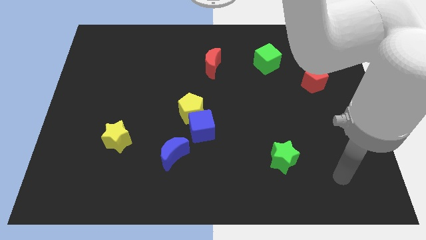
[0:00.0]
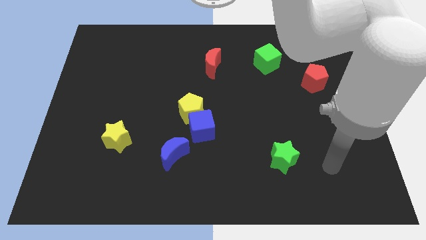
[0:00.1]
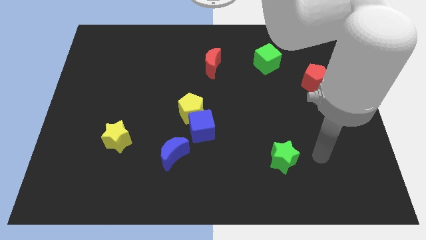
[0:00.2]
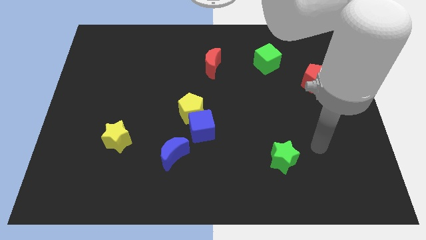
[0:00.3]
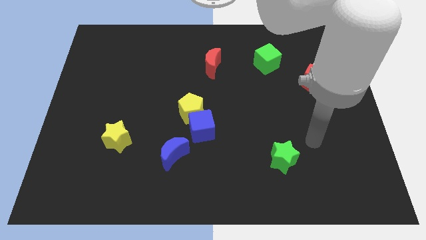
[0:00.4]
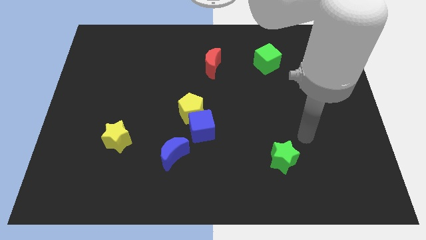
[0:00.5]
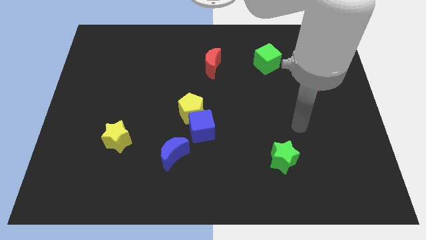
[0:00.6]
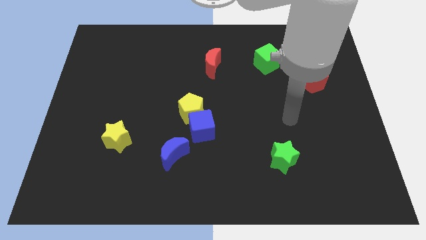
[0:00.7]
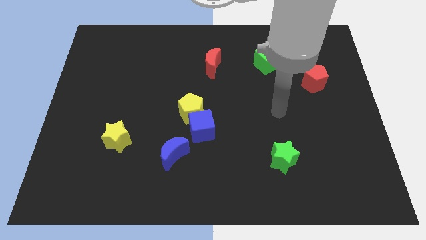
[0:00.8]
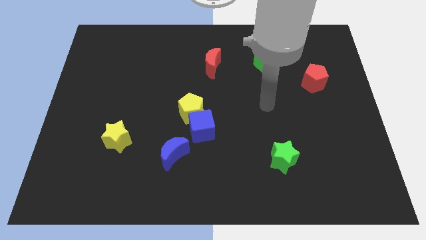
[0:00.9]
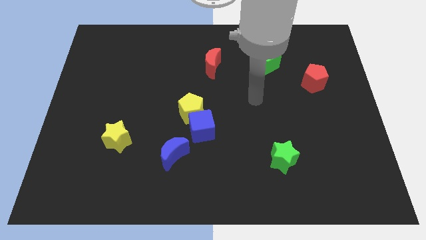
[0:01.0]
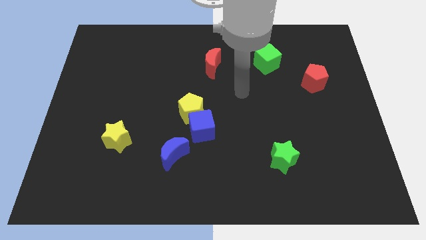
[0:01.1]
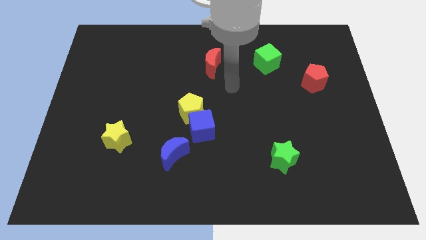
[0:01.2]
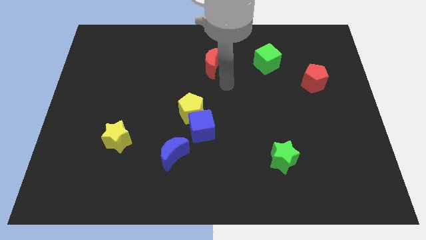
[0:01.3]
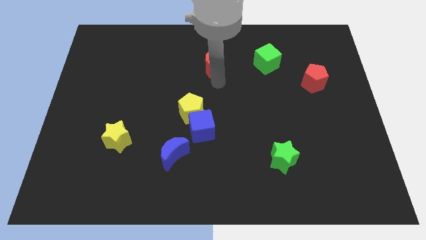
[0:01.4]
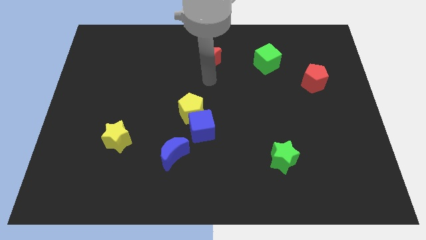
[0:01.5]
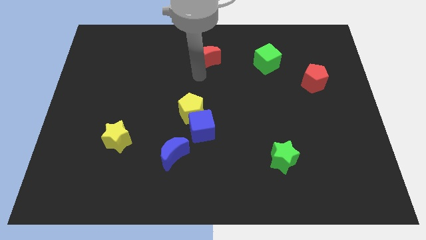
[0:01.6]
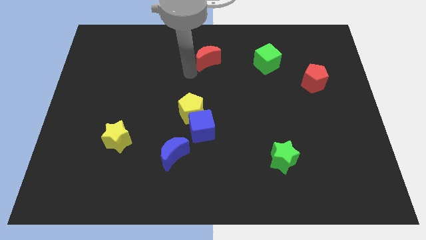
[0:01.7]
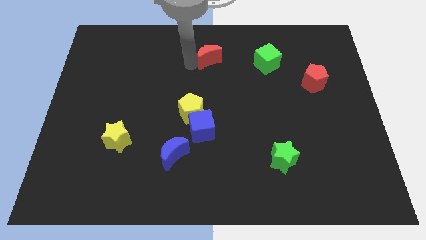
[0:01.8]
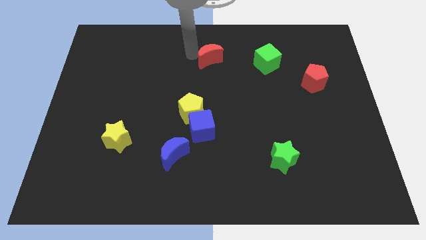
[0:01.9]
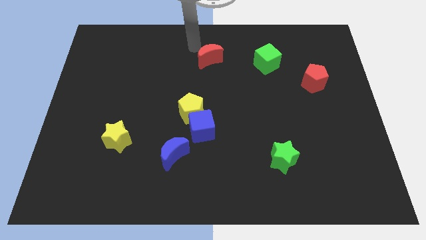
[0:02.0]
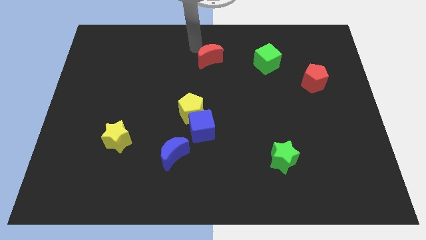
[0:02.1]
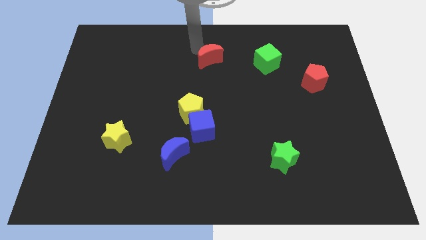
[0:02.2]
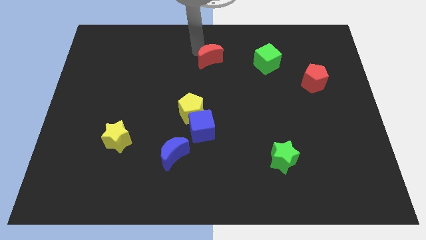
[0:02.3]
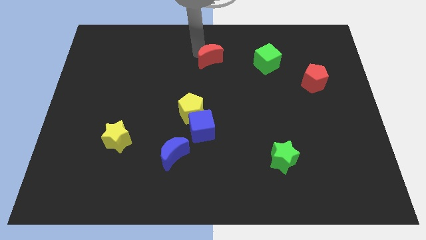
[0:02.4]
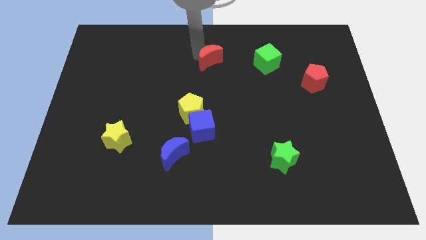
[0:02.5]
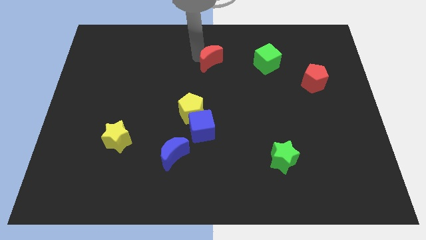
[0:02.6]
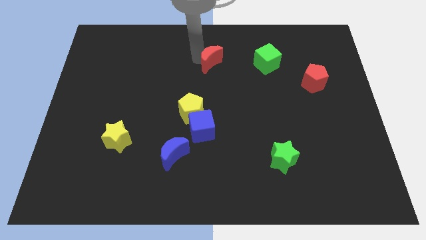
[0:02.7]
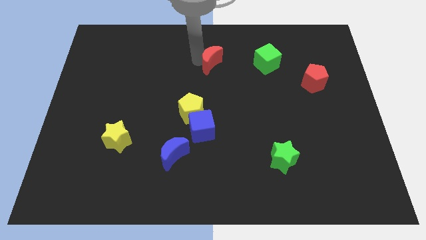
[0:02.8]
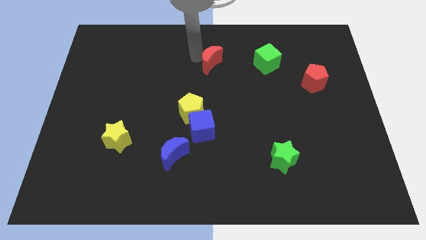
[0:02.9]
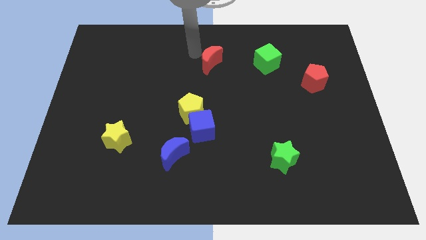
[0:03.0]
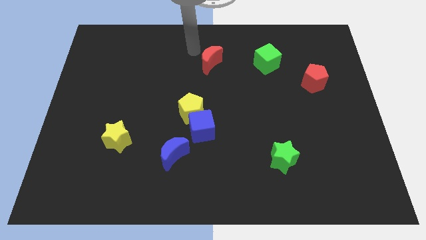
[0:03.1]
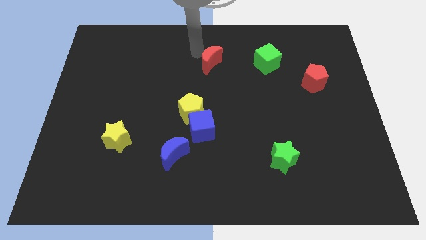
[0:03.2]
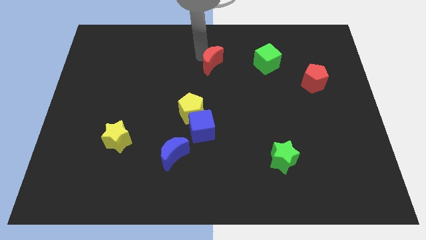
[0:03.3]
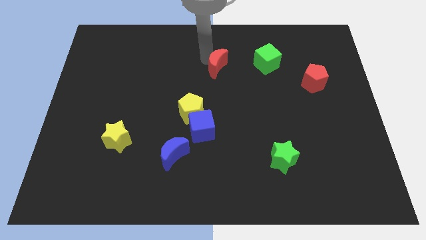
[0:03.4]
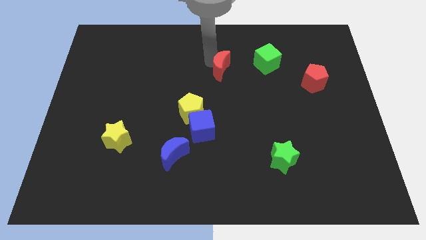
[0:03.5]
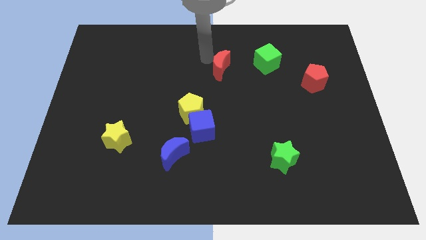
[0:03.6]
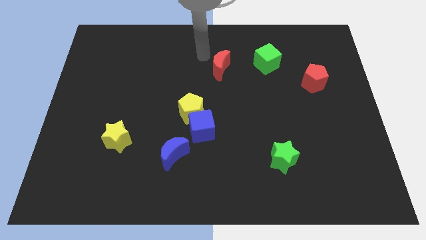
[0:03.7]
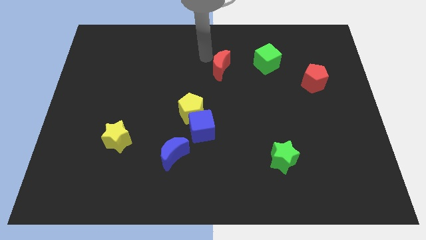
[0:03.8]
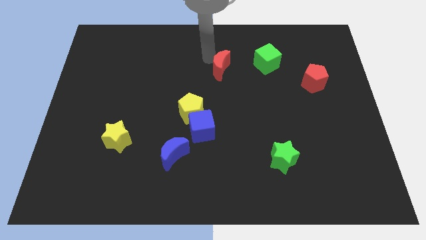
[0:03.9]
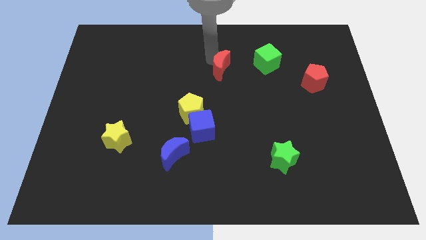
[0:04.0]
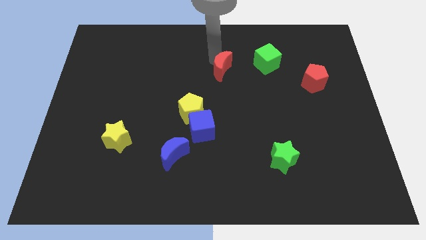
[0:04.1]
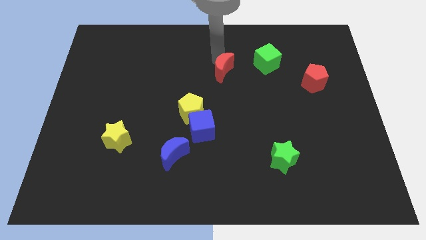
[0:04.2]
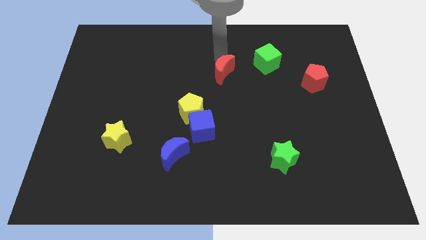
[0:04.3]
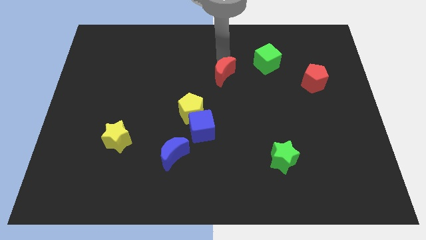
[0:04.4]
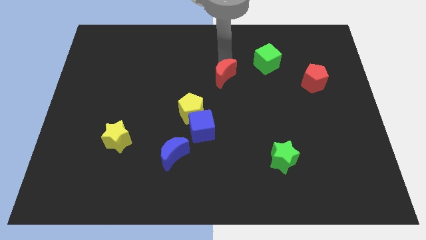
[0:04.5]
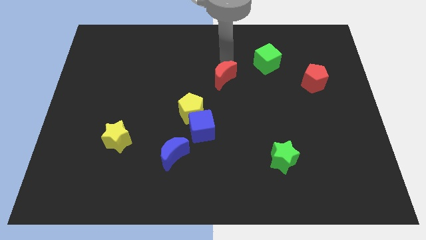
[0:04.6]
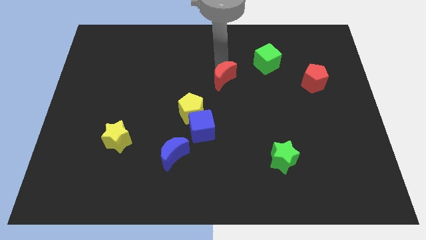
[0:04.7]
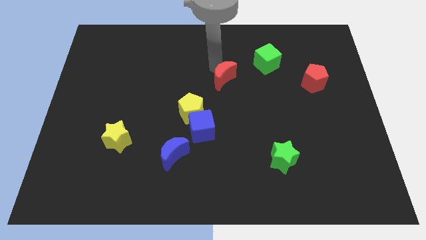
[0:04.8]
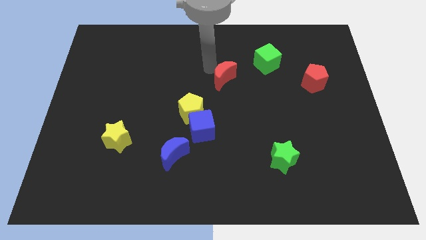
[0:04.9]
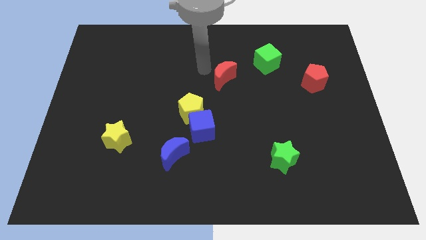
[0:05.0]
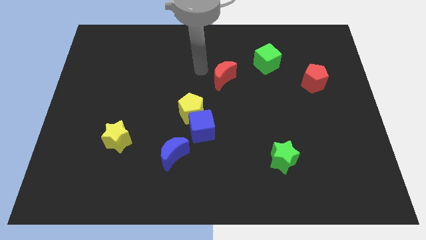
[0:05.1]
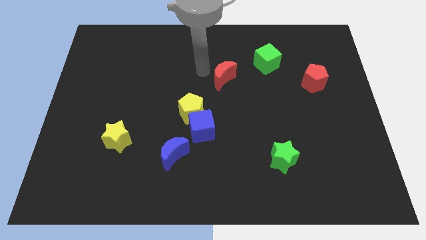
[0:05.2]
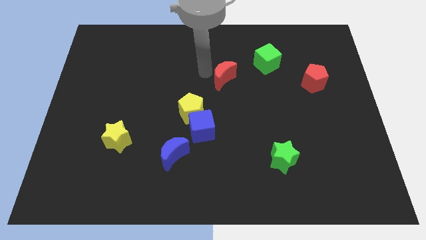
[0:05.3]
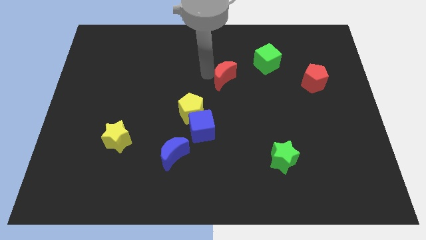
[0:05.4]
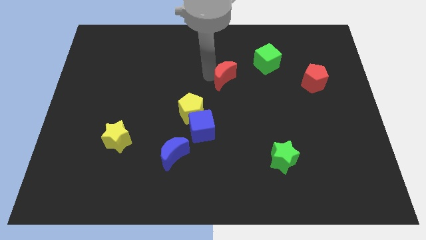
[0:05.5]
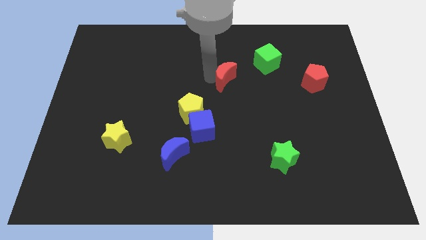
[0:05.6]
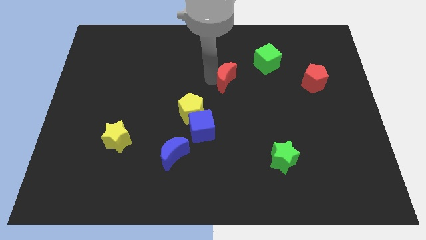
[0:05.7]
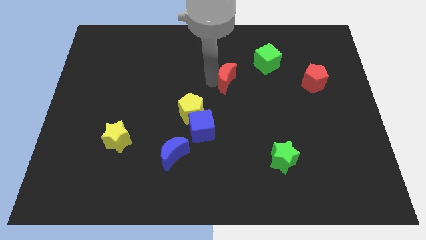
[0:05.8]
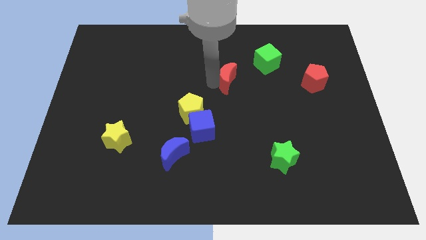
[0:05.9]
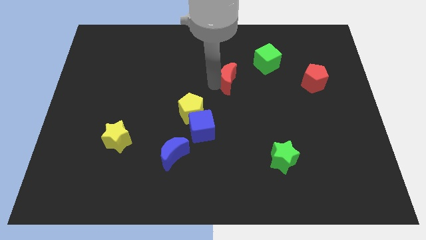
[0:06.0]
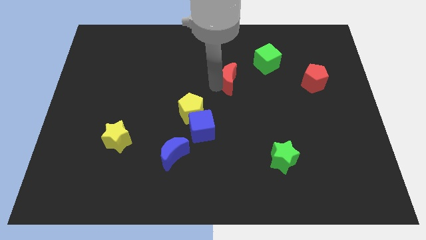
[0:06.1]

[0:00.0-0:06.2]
slightly move the red moon downwards and then right

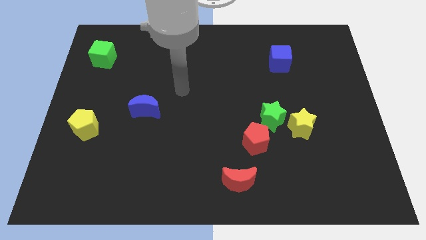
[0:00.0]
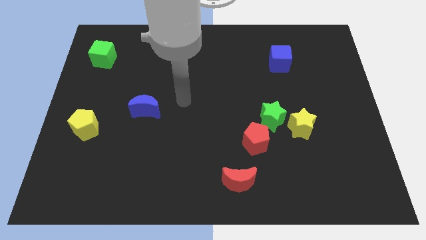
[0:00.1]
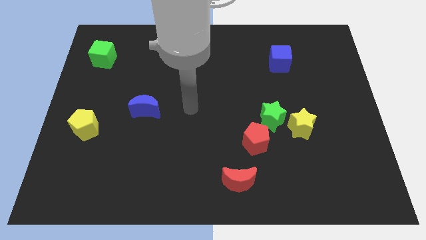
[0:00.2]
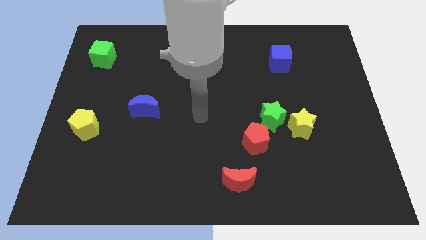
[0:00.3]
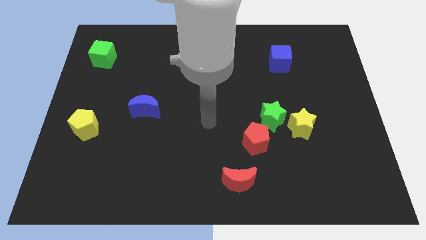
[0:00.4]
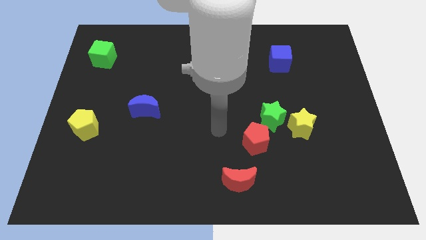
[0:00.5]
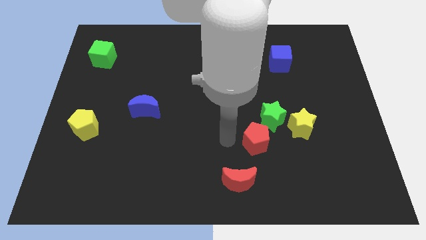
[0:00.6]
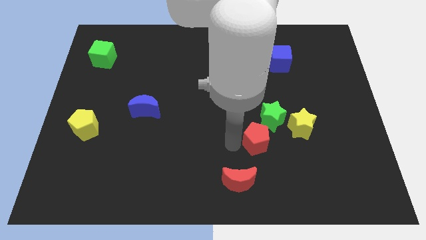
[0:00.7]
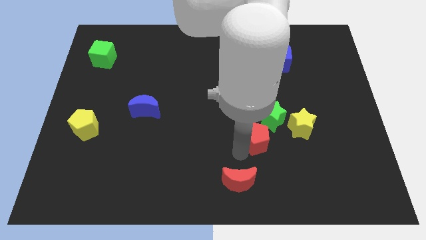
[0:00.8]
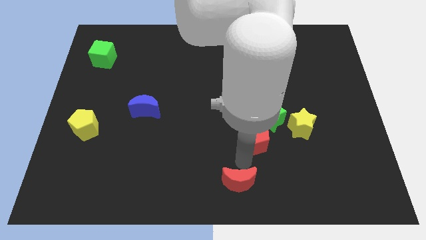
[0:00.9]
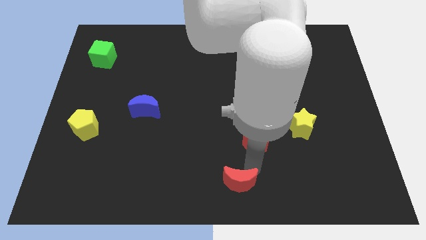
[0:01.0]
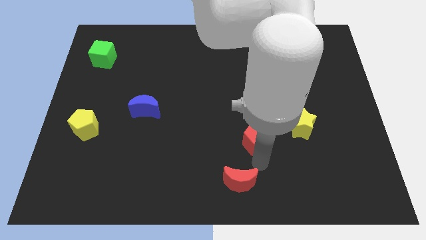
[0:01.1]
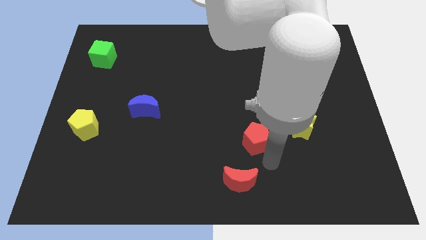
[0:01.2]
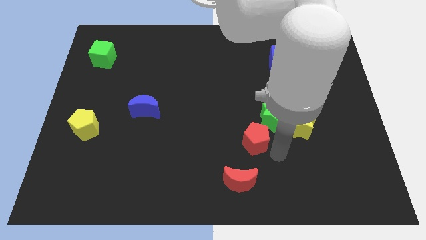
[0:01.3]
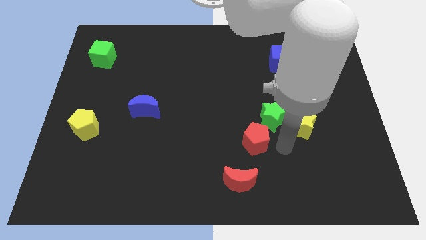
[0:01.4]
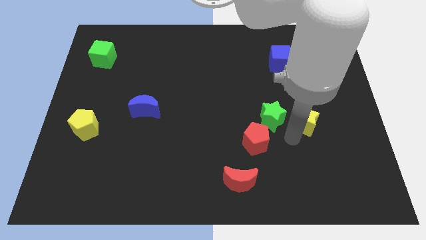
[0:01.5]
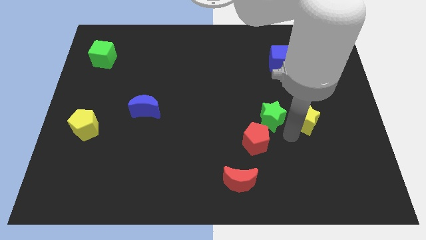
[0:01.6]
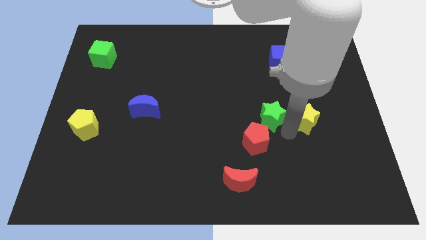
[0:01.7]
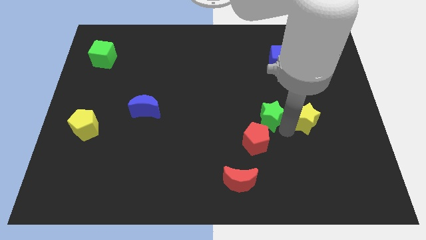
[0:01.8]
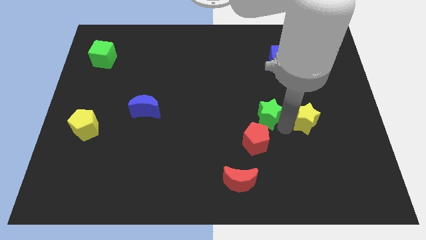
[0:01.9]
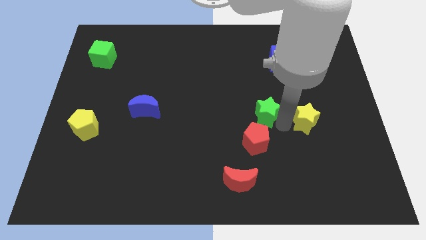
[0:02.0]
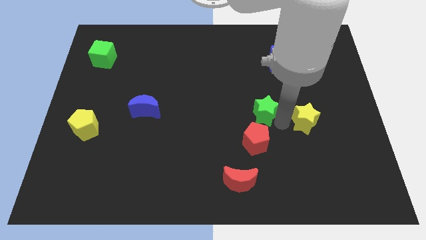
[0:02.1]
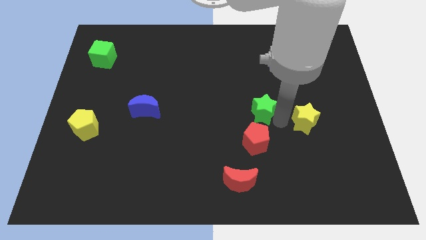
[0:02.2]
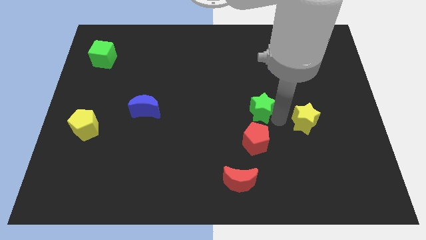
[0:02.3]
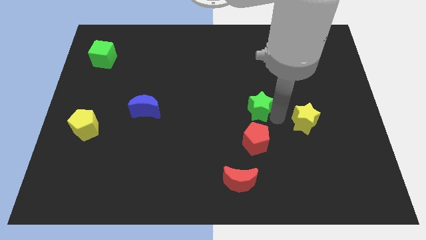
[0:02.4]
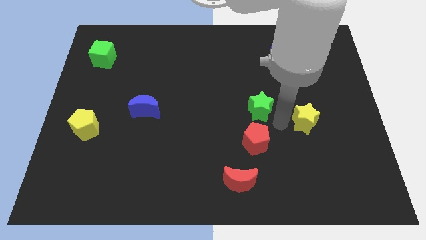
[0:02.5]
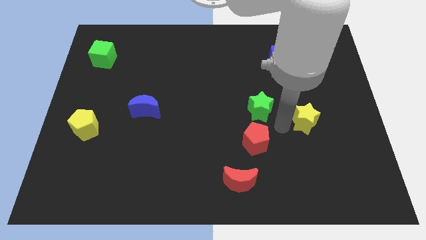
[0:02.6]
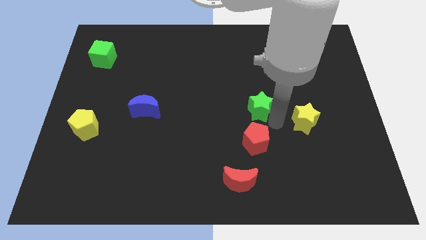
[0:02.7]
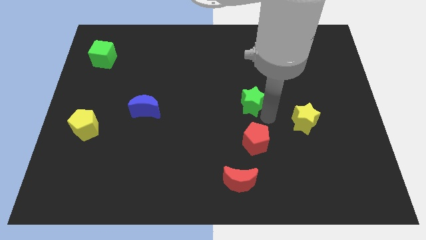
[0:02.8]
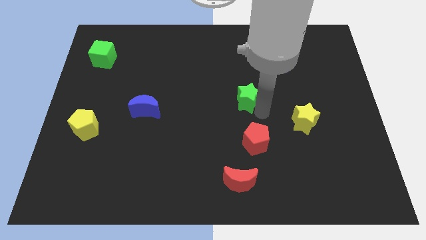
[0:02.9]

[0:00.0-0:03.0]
slide the green star a little bit up and to the left
